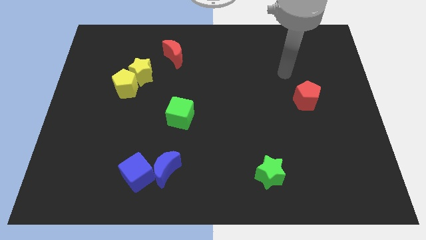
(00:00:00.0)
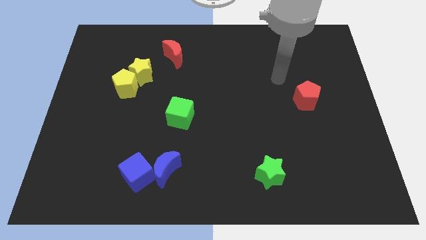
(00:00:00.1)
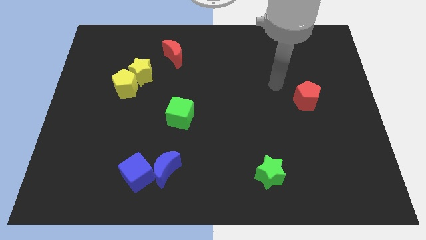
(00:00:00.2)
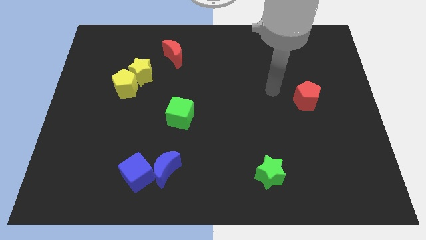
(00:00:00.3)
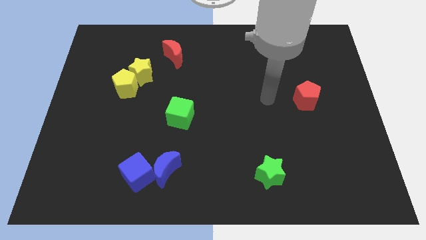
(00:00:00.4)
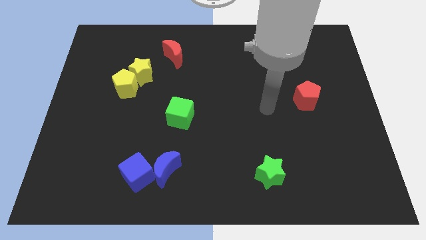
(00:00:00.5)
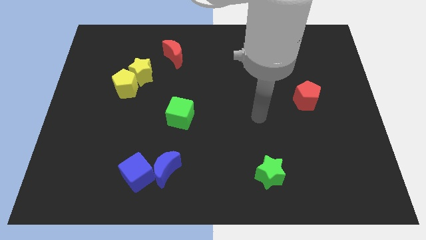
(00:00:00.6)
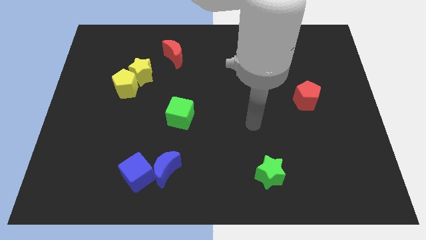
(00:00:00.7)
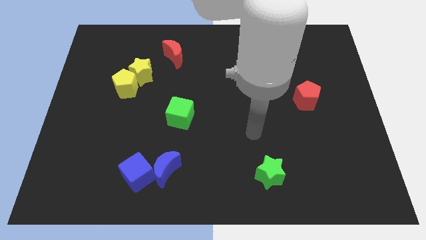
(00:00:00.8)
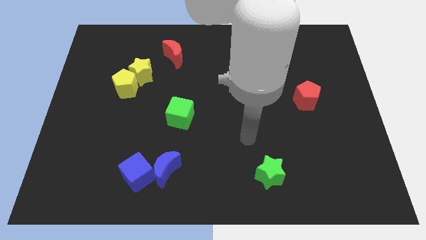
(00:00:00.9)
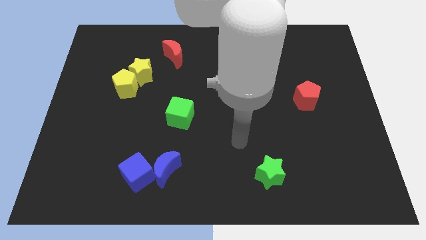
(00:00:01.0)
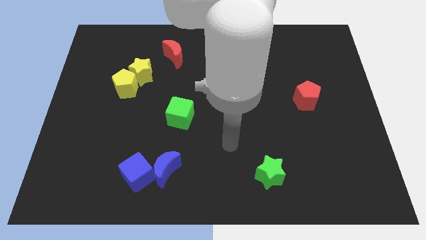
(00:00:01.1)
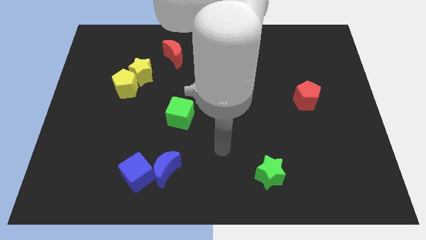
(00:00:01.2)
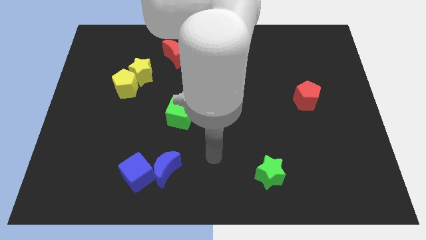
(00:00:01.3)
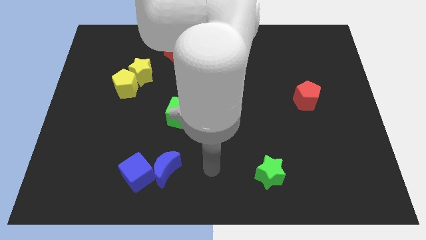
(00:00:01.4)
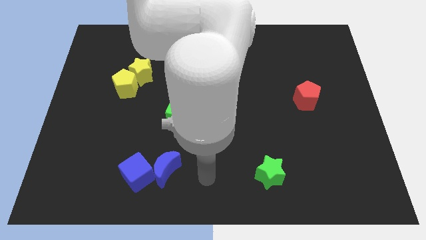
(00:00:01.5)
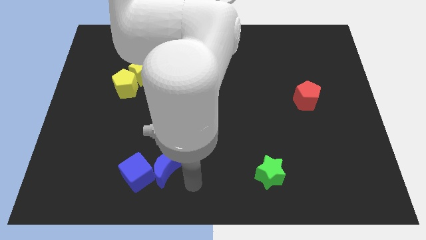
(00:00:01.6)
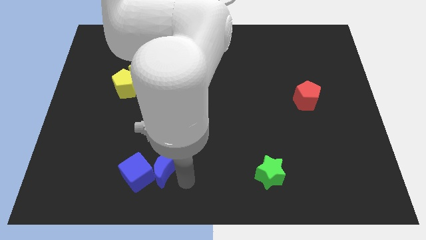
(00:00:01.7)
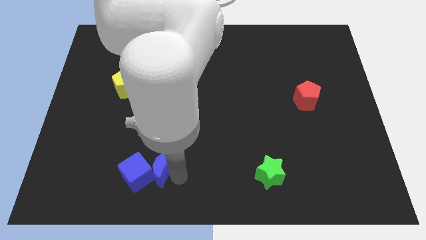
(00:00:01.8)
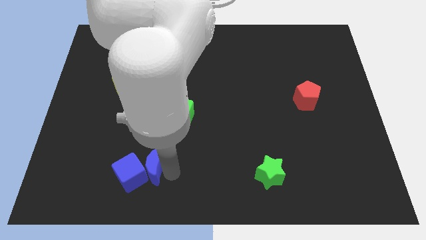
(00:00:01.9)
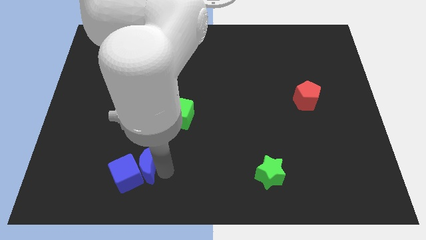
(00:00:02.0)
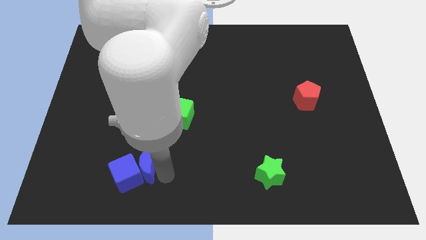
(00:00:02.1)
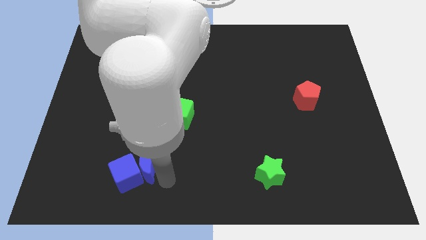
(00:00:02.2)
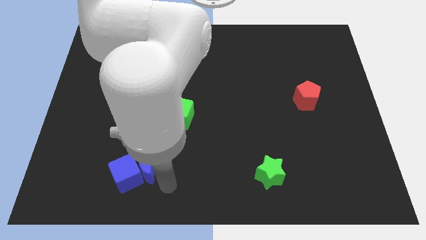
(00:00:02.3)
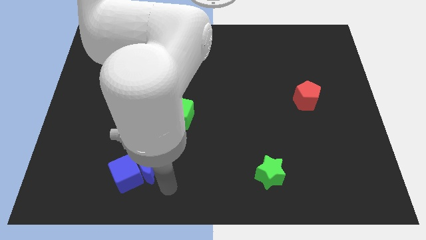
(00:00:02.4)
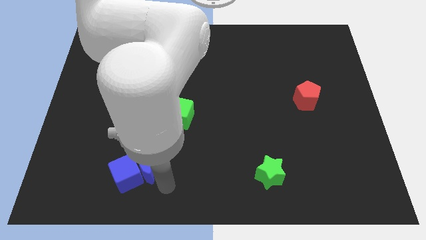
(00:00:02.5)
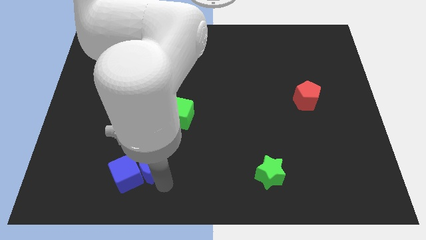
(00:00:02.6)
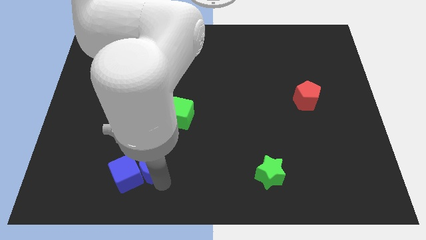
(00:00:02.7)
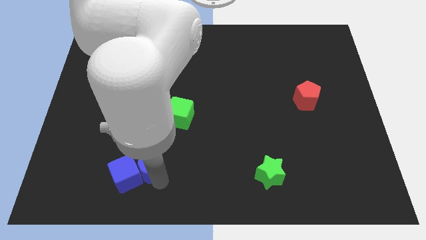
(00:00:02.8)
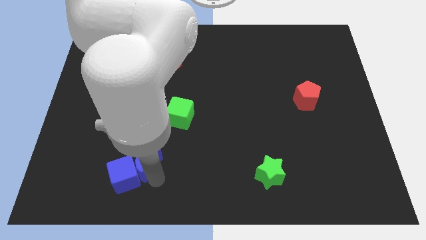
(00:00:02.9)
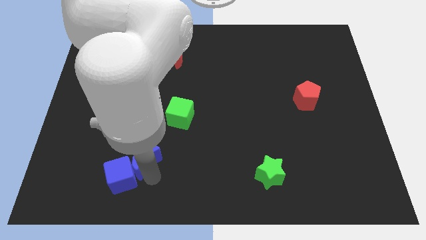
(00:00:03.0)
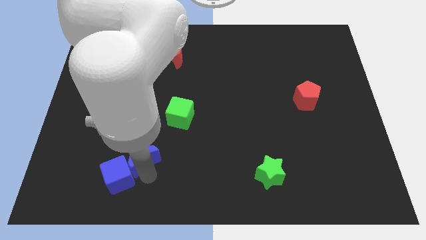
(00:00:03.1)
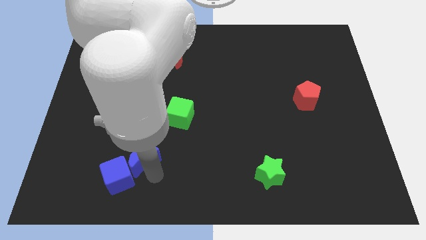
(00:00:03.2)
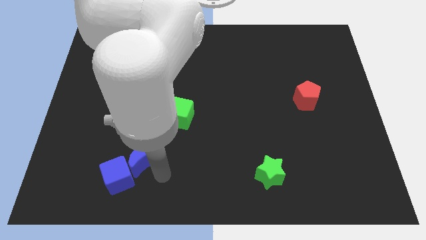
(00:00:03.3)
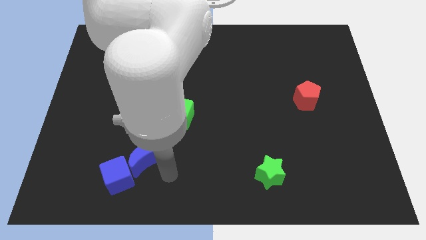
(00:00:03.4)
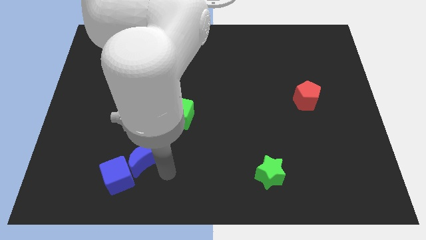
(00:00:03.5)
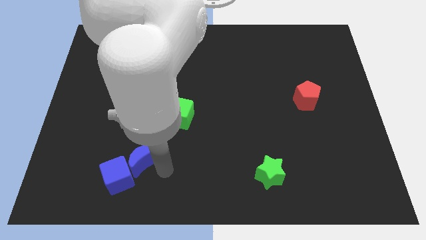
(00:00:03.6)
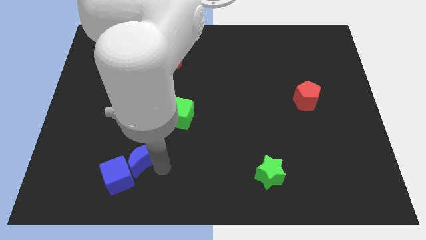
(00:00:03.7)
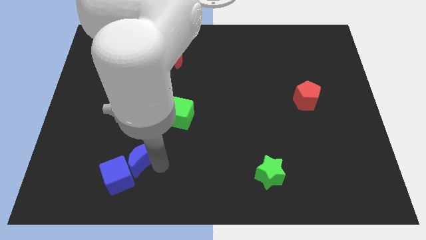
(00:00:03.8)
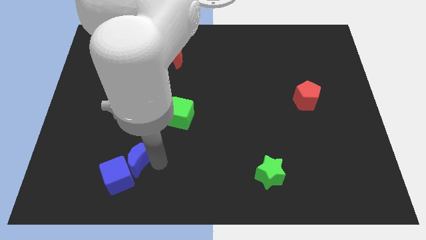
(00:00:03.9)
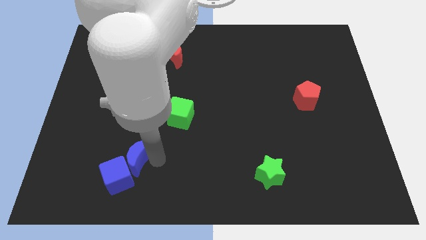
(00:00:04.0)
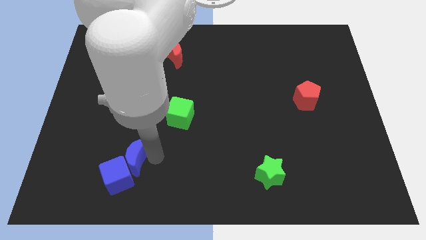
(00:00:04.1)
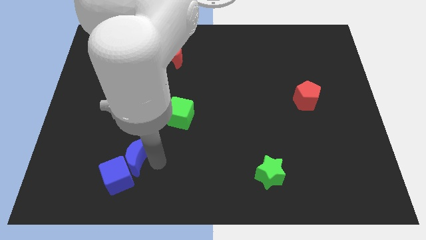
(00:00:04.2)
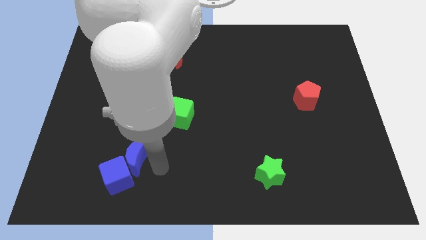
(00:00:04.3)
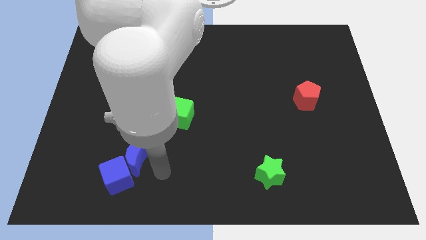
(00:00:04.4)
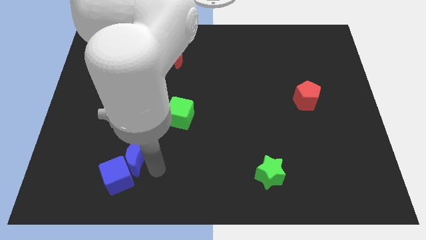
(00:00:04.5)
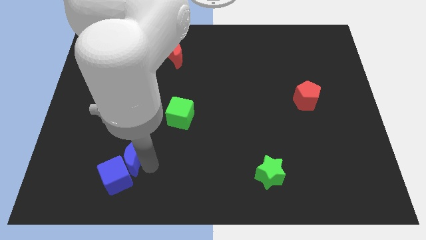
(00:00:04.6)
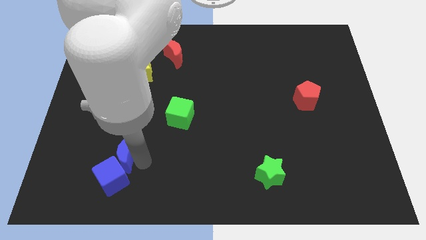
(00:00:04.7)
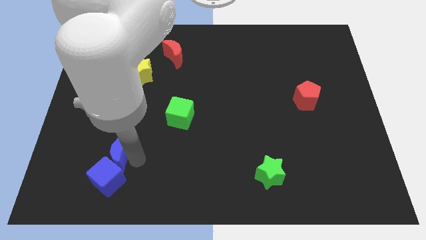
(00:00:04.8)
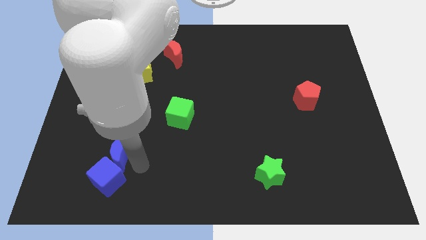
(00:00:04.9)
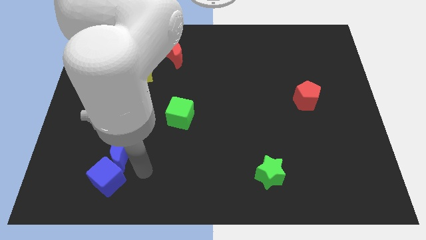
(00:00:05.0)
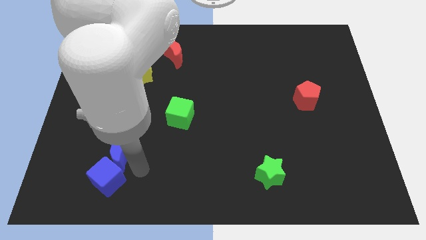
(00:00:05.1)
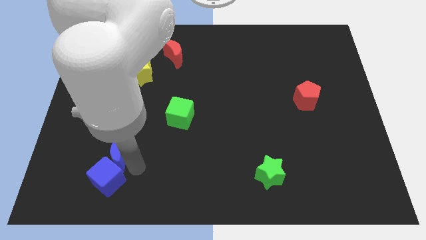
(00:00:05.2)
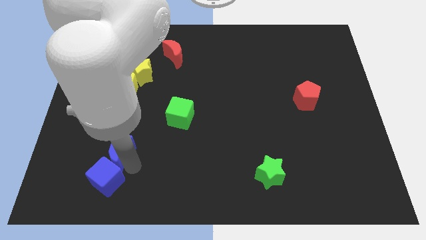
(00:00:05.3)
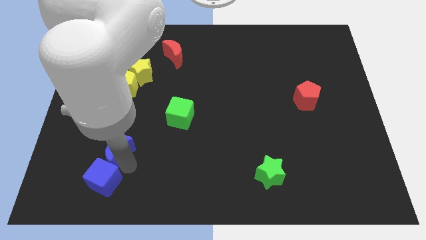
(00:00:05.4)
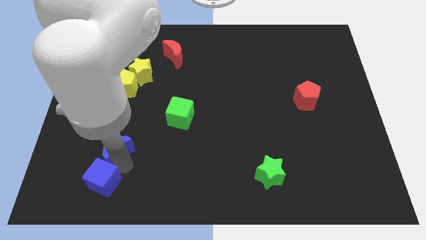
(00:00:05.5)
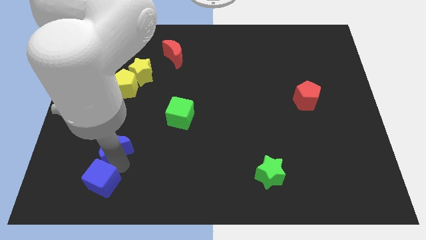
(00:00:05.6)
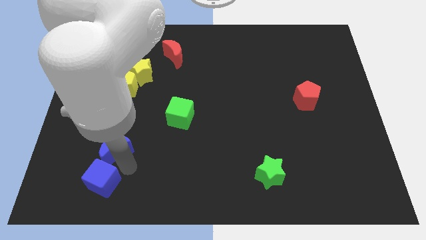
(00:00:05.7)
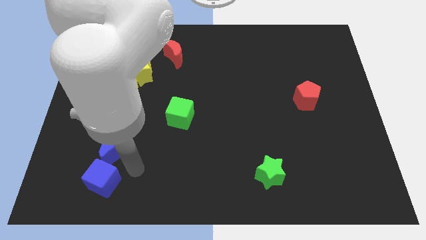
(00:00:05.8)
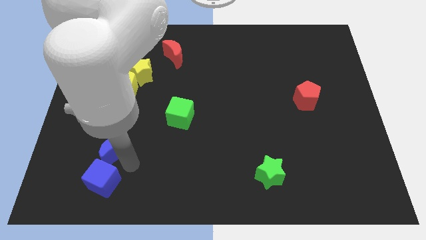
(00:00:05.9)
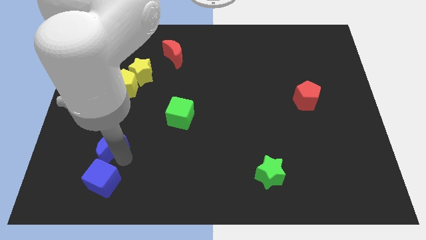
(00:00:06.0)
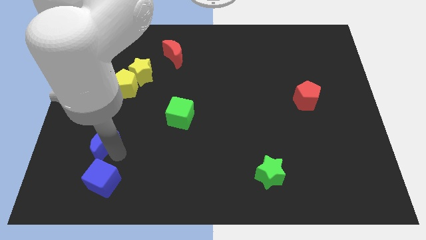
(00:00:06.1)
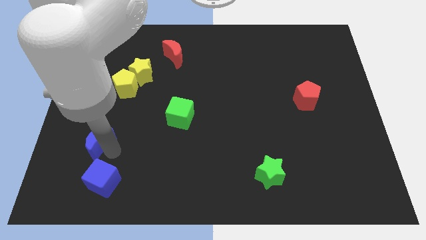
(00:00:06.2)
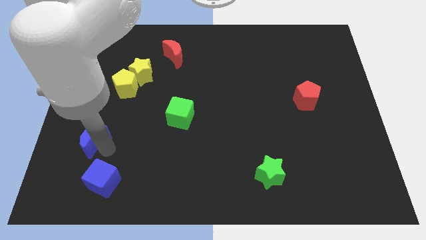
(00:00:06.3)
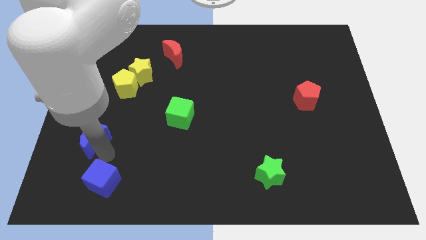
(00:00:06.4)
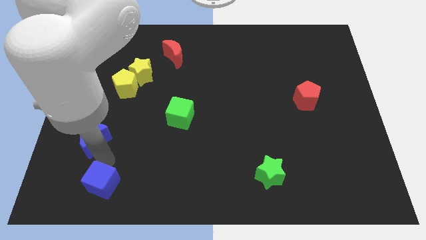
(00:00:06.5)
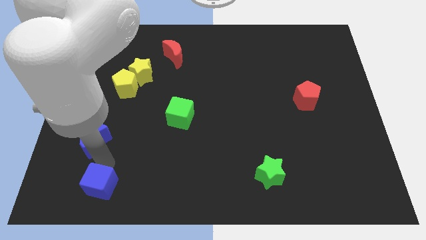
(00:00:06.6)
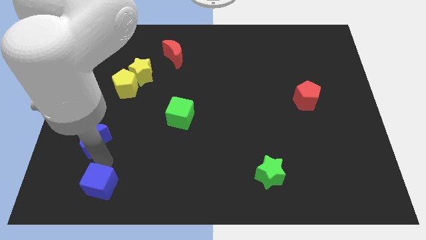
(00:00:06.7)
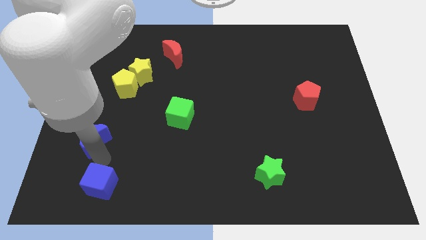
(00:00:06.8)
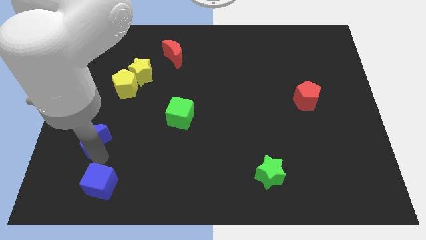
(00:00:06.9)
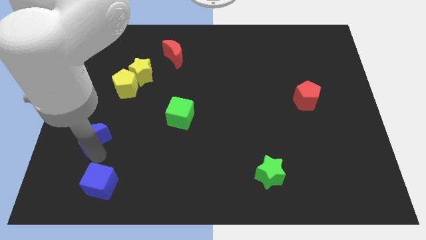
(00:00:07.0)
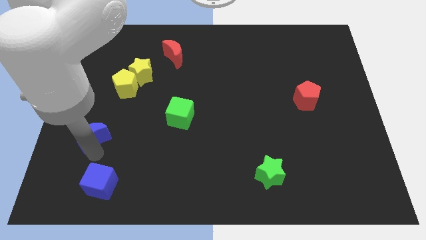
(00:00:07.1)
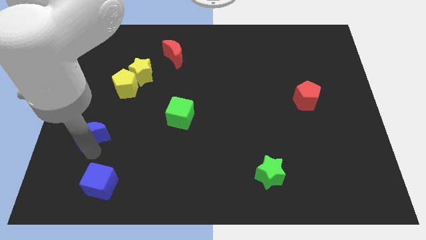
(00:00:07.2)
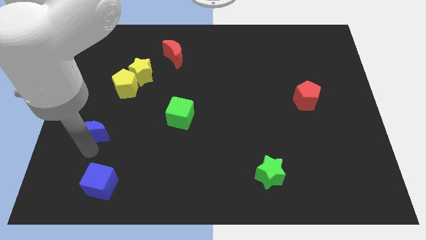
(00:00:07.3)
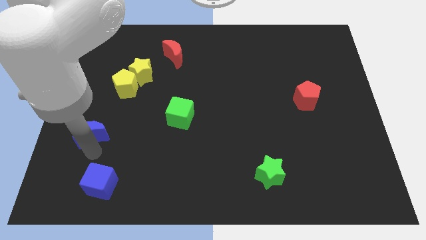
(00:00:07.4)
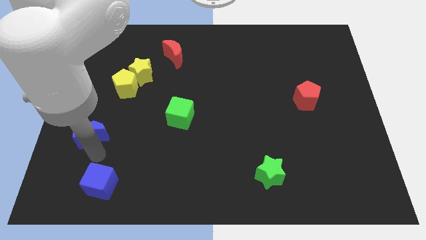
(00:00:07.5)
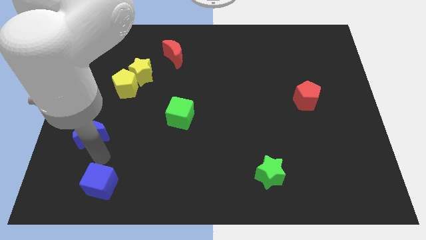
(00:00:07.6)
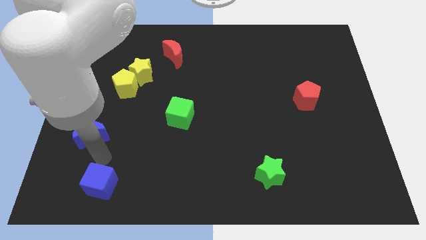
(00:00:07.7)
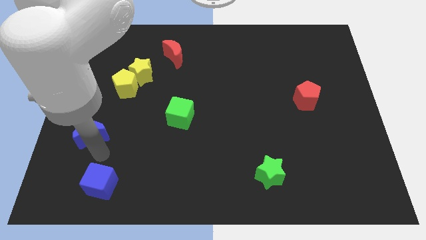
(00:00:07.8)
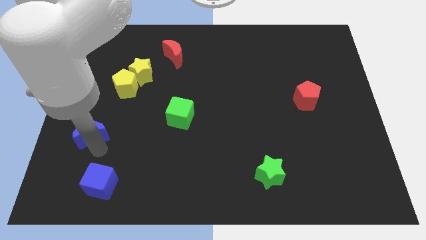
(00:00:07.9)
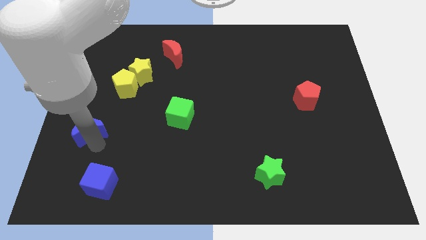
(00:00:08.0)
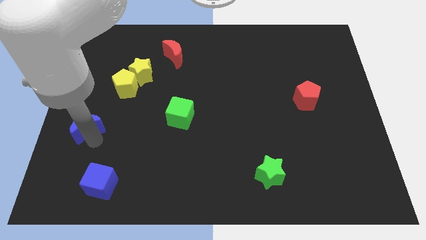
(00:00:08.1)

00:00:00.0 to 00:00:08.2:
push the blue moon to the left side of the board
